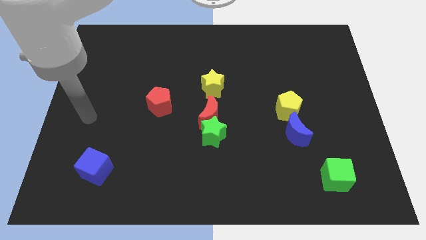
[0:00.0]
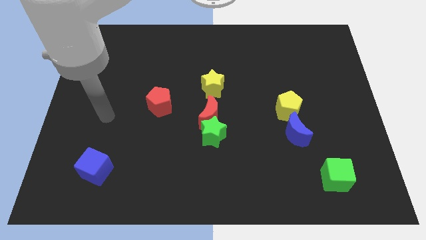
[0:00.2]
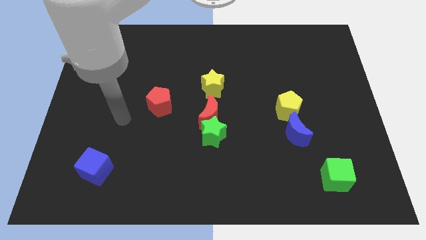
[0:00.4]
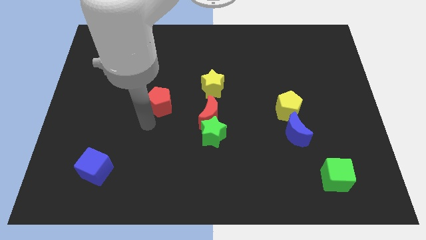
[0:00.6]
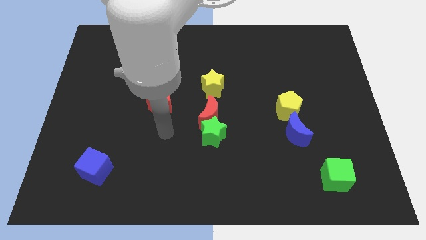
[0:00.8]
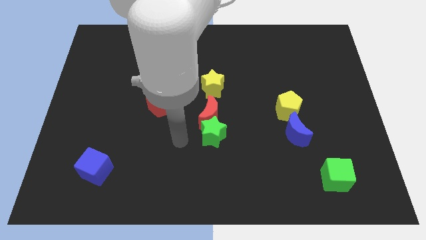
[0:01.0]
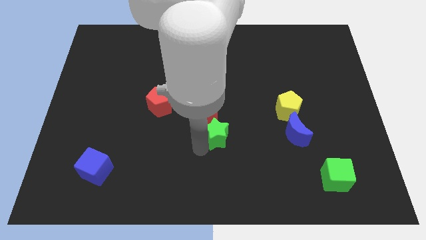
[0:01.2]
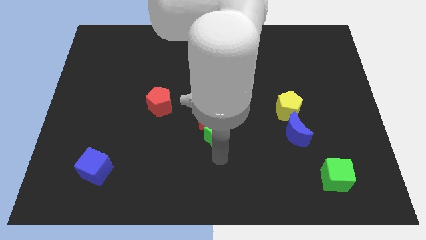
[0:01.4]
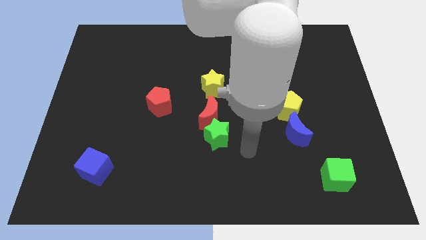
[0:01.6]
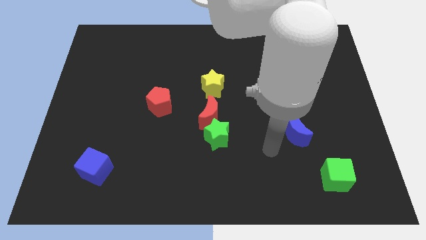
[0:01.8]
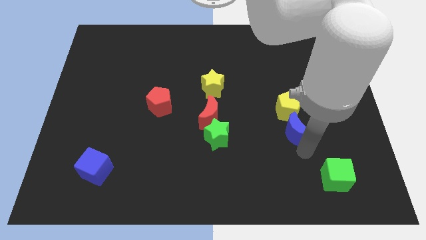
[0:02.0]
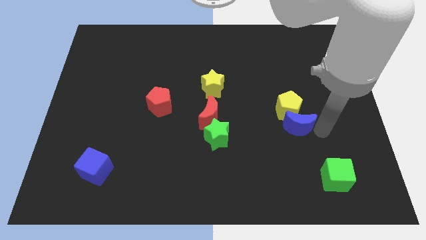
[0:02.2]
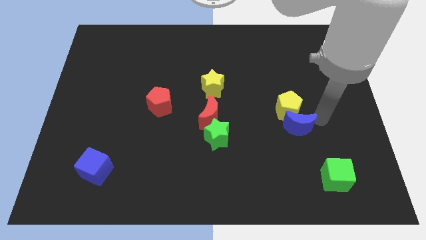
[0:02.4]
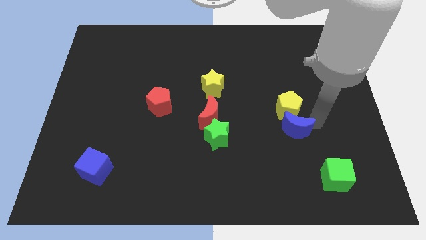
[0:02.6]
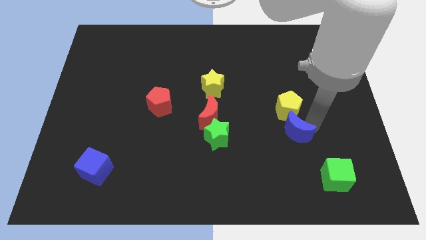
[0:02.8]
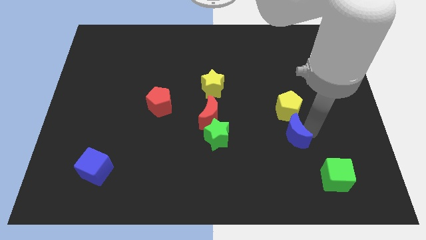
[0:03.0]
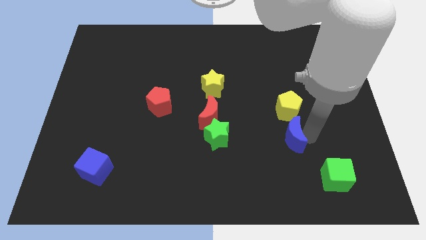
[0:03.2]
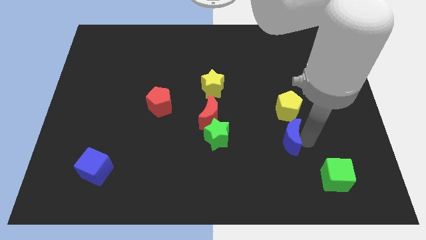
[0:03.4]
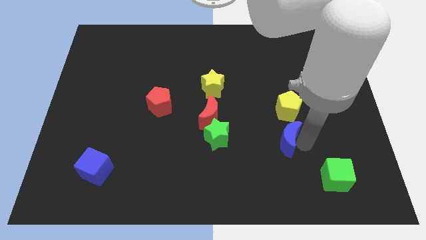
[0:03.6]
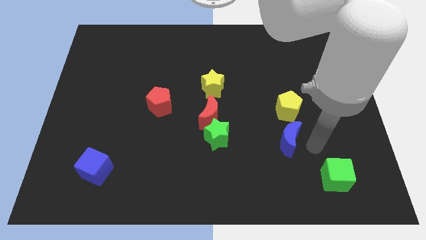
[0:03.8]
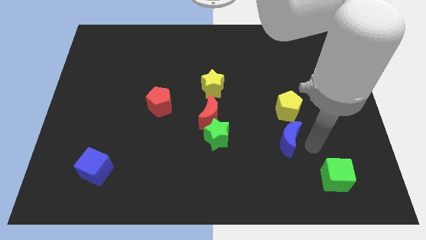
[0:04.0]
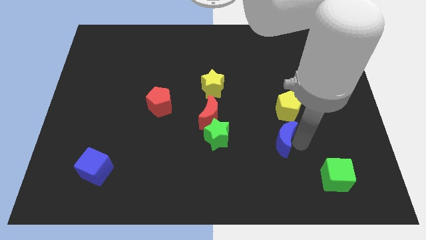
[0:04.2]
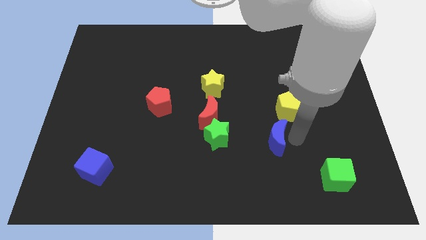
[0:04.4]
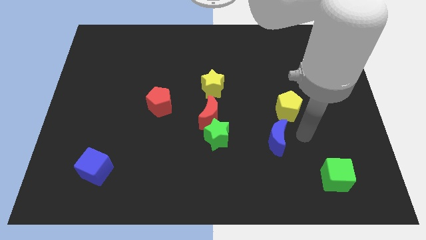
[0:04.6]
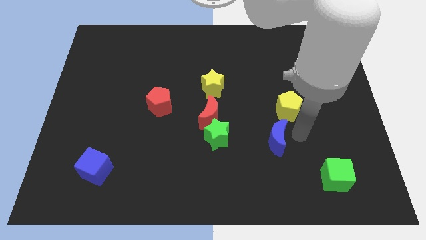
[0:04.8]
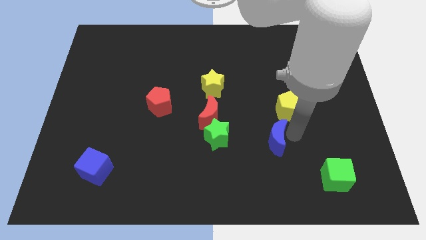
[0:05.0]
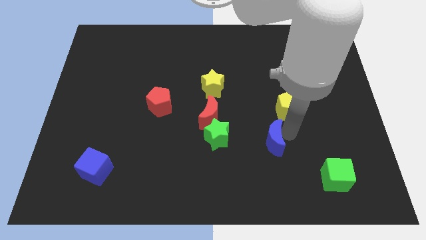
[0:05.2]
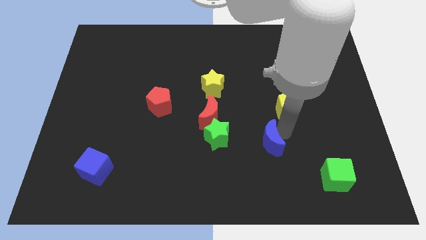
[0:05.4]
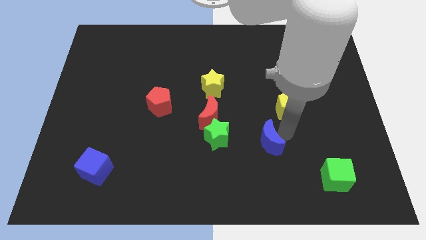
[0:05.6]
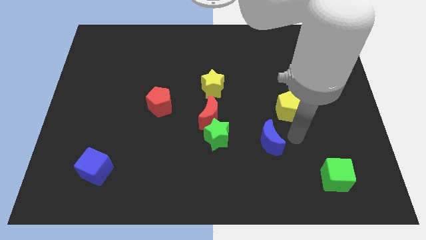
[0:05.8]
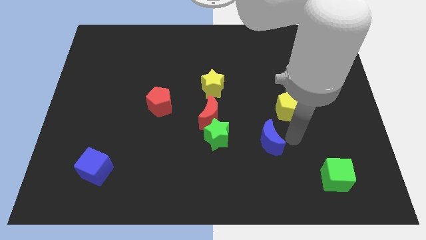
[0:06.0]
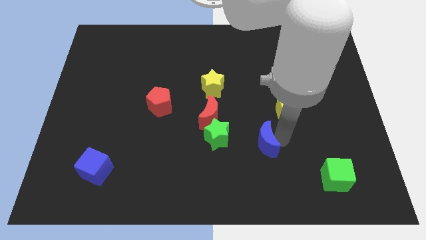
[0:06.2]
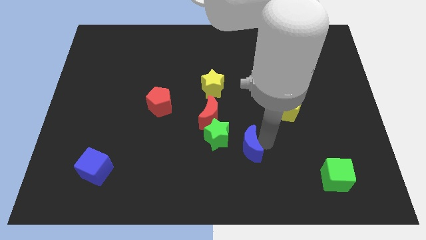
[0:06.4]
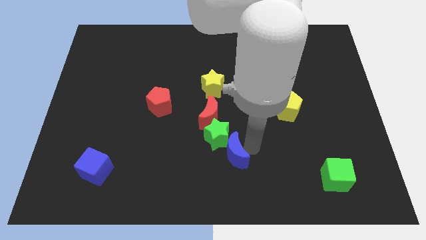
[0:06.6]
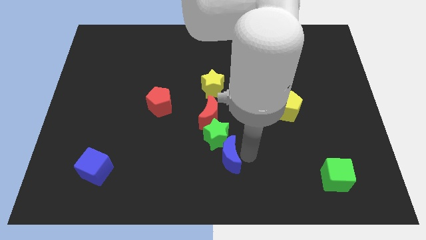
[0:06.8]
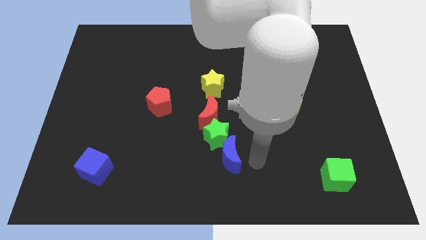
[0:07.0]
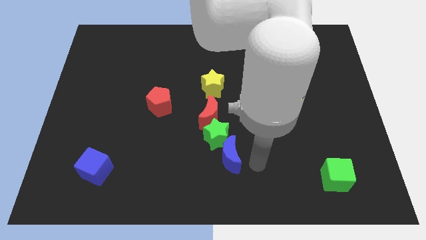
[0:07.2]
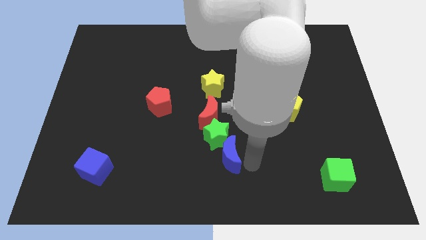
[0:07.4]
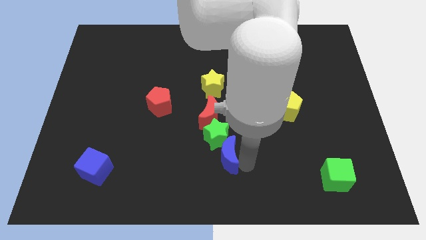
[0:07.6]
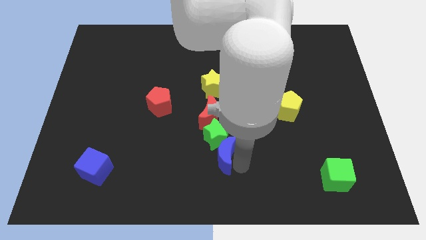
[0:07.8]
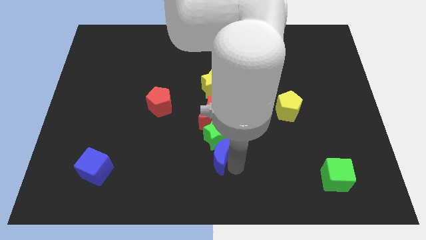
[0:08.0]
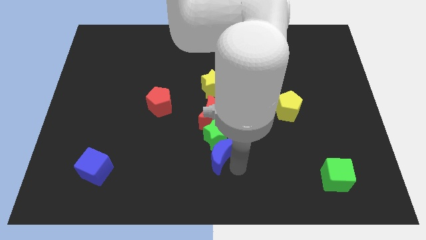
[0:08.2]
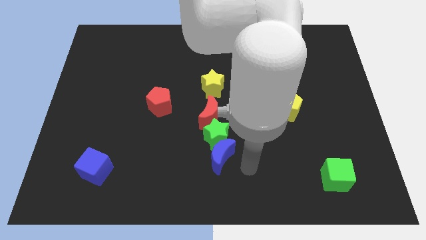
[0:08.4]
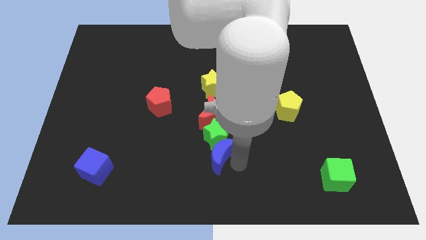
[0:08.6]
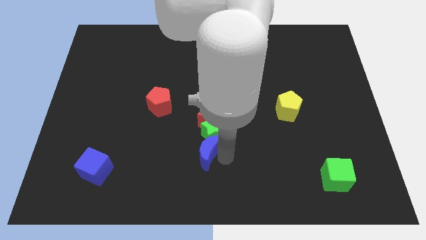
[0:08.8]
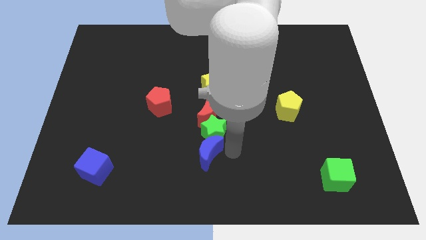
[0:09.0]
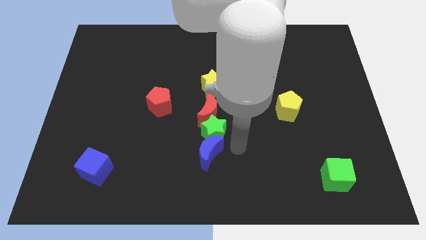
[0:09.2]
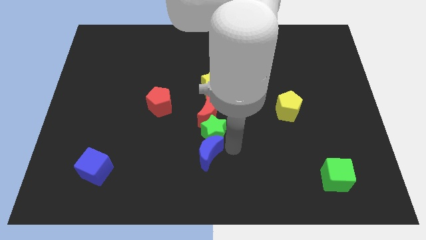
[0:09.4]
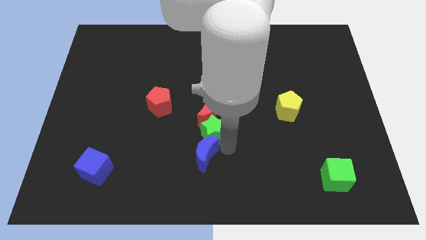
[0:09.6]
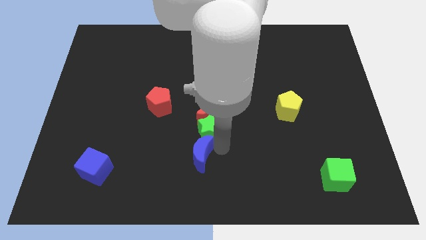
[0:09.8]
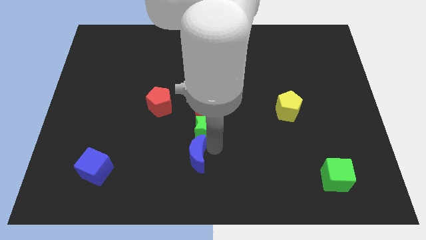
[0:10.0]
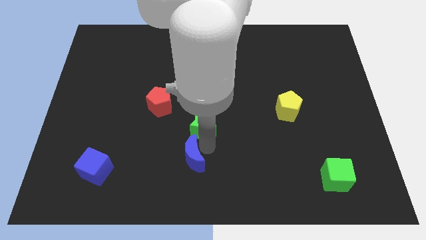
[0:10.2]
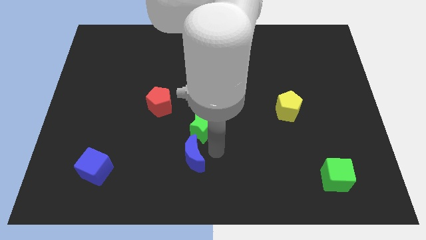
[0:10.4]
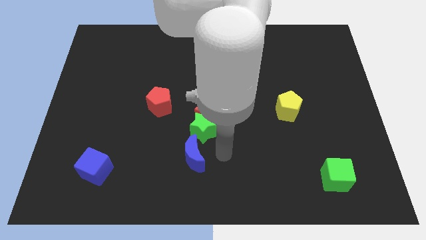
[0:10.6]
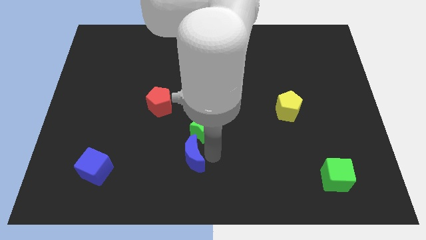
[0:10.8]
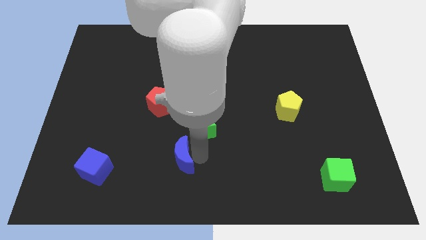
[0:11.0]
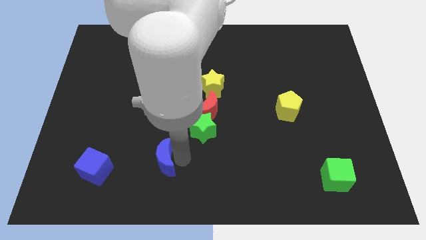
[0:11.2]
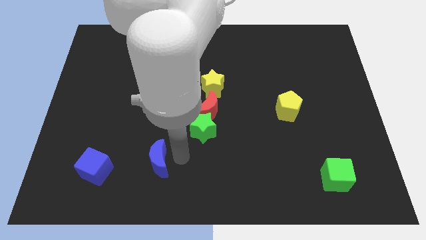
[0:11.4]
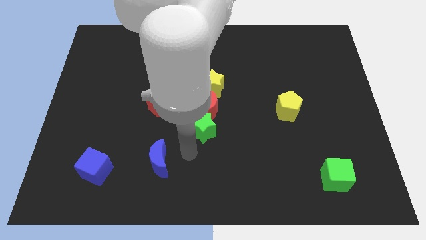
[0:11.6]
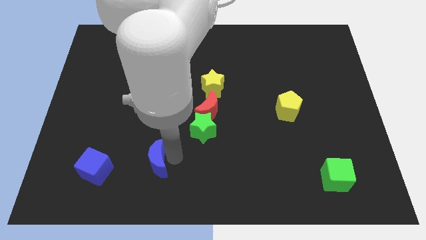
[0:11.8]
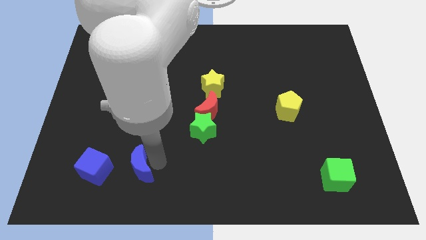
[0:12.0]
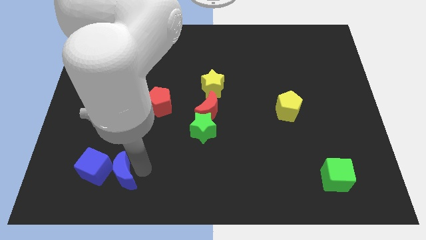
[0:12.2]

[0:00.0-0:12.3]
slide the blue moon to the blue cube
